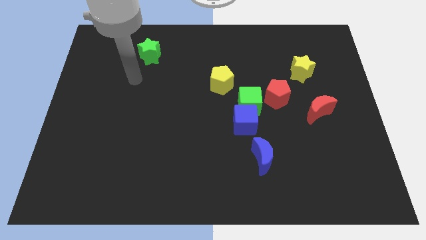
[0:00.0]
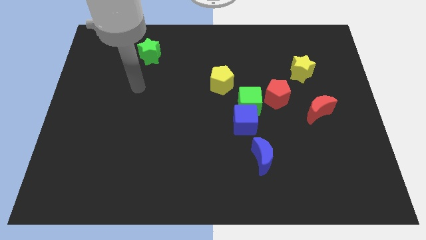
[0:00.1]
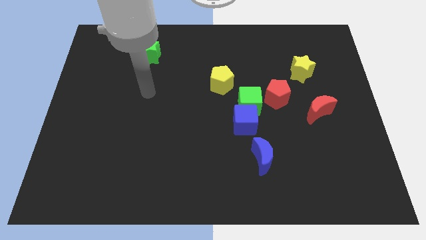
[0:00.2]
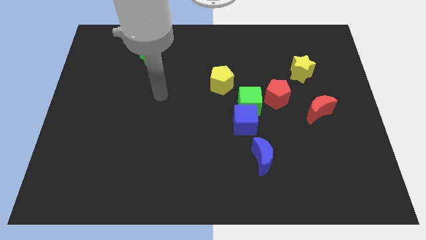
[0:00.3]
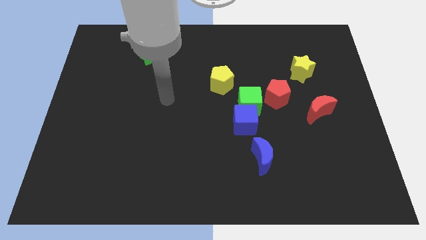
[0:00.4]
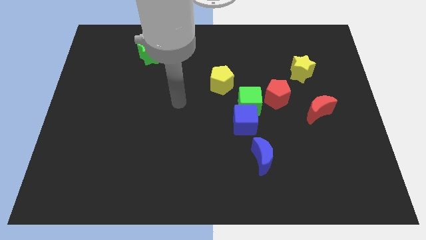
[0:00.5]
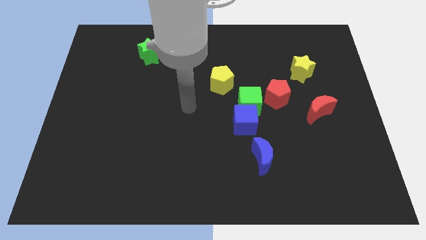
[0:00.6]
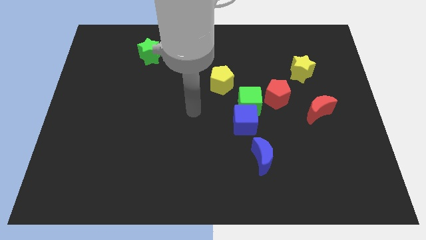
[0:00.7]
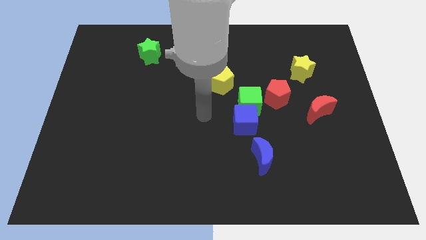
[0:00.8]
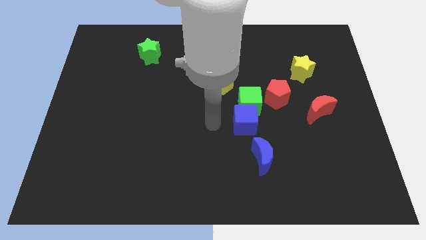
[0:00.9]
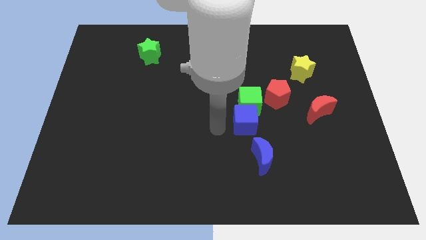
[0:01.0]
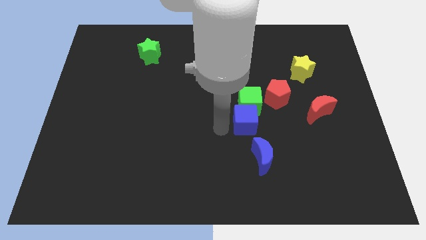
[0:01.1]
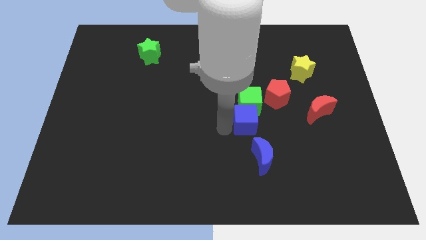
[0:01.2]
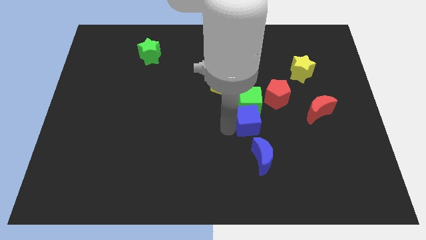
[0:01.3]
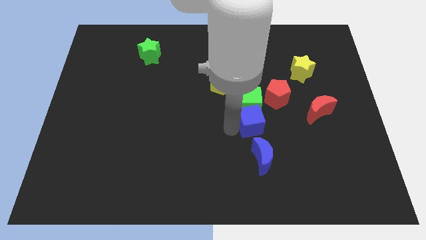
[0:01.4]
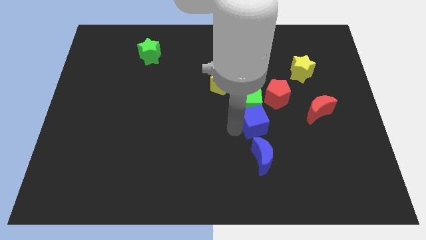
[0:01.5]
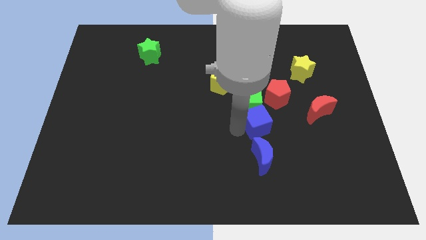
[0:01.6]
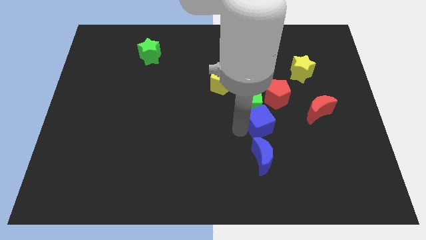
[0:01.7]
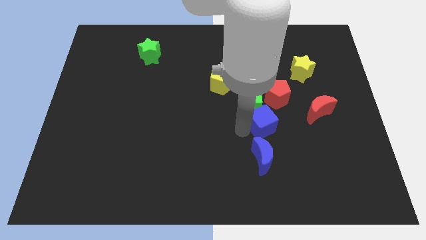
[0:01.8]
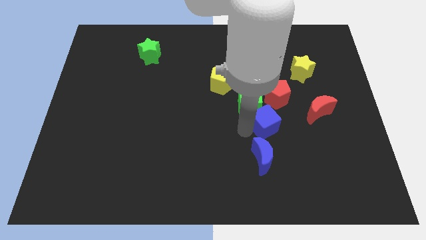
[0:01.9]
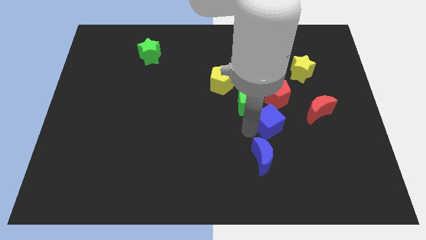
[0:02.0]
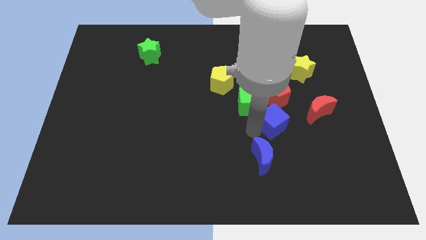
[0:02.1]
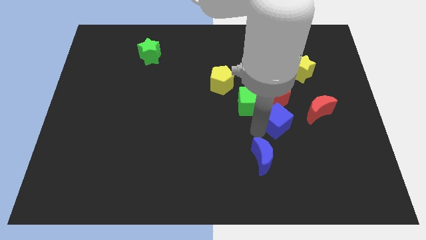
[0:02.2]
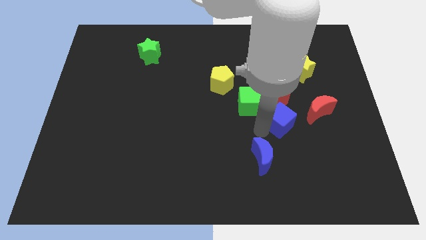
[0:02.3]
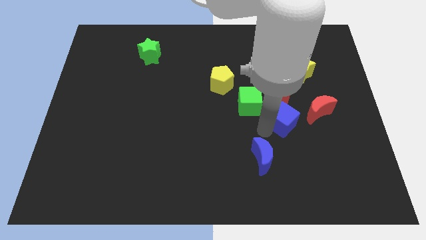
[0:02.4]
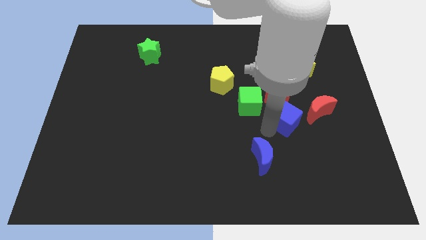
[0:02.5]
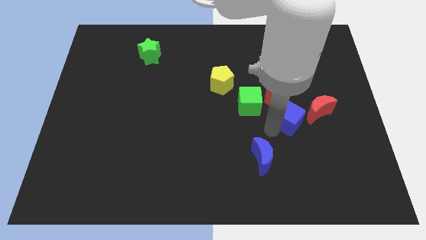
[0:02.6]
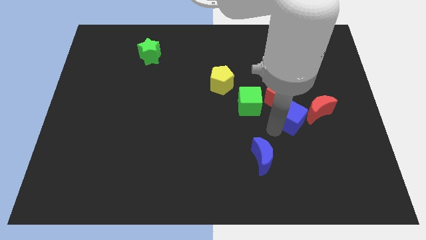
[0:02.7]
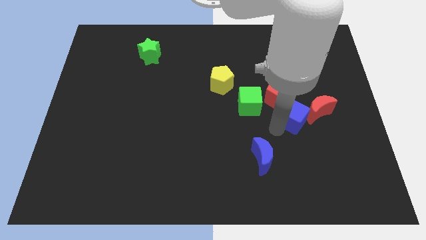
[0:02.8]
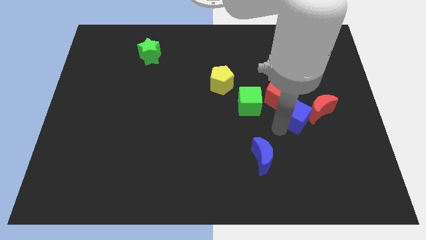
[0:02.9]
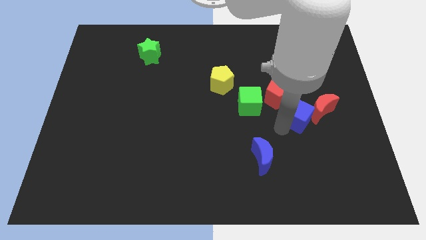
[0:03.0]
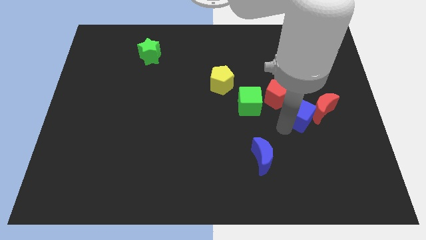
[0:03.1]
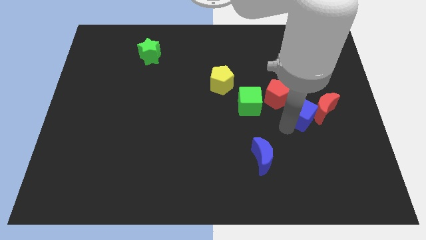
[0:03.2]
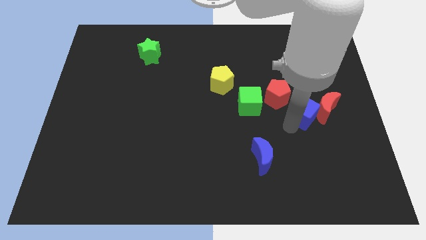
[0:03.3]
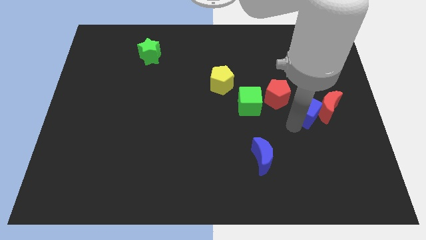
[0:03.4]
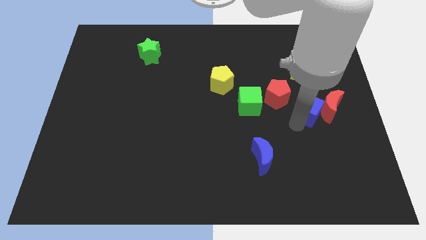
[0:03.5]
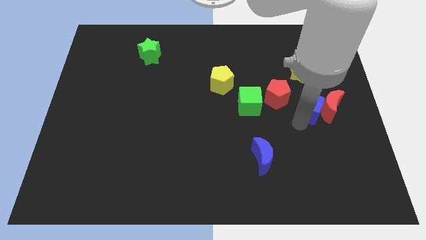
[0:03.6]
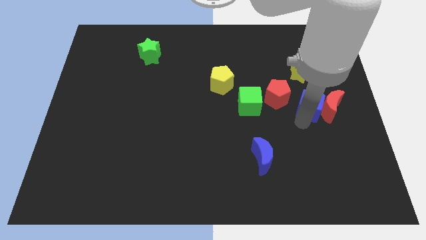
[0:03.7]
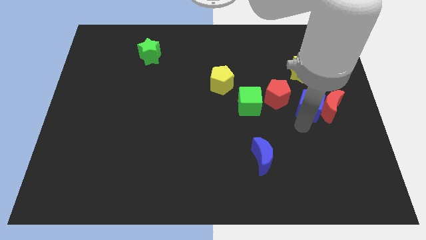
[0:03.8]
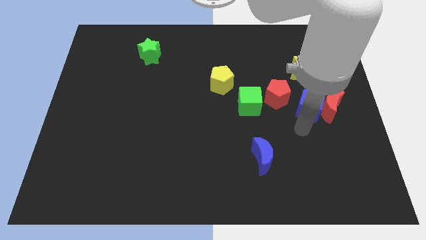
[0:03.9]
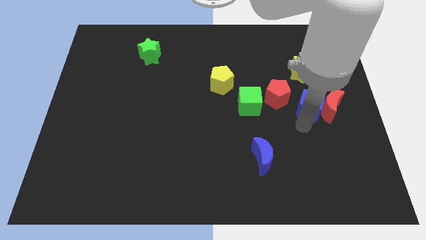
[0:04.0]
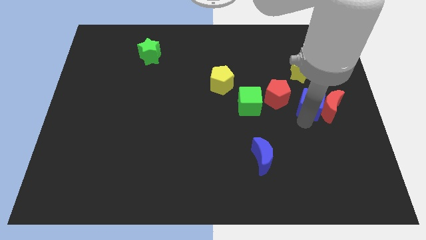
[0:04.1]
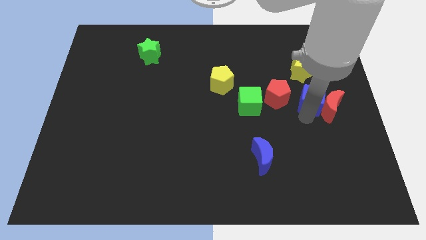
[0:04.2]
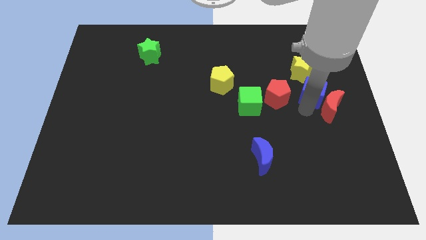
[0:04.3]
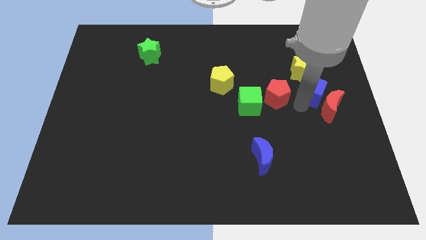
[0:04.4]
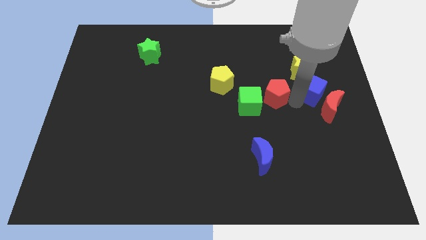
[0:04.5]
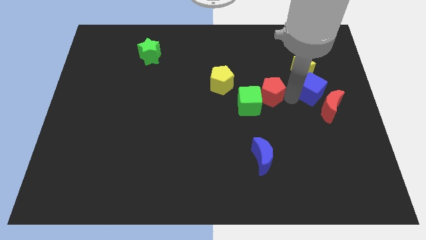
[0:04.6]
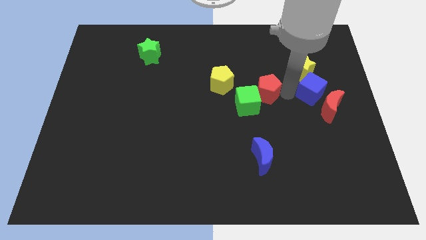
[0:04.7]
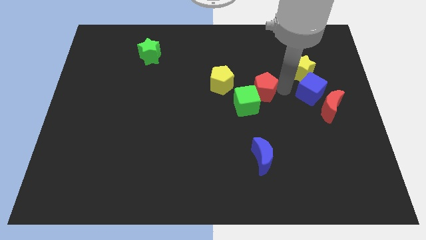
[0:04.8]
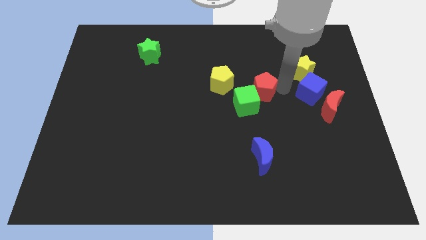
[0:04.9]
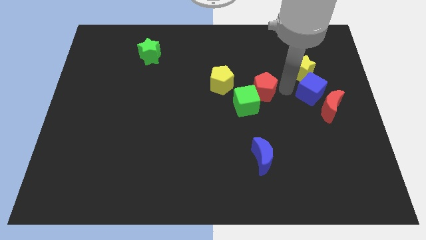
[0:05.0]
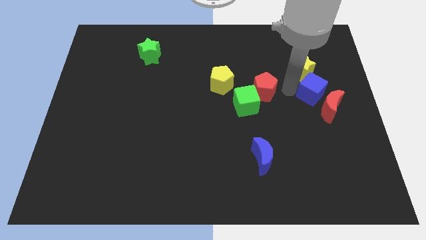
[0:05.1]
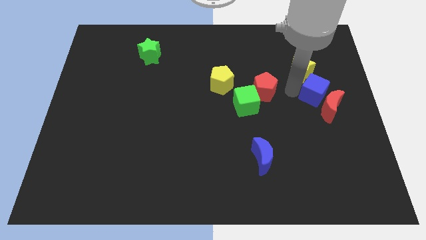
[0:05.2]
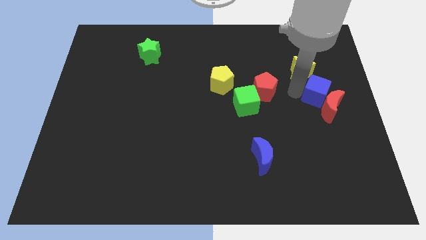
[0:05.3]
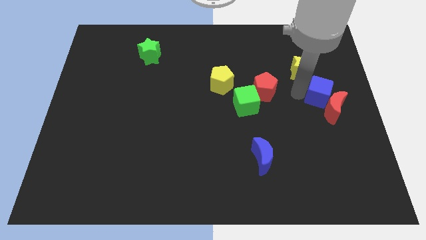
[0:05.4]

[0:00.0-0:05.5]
move the blue cube to the right side of the board

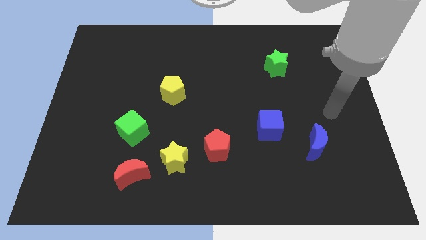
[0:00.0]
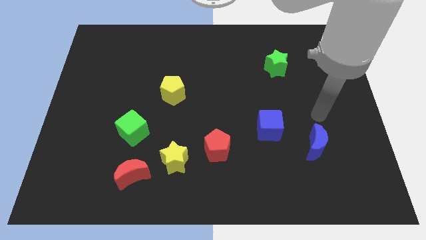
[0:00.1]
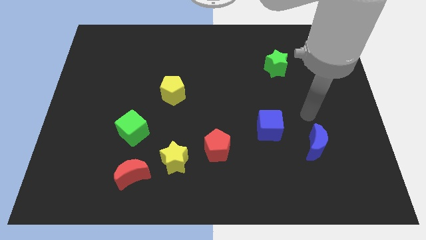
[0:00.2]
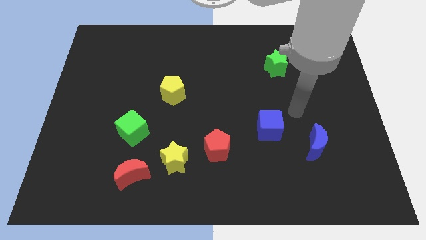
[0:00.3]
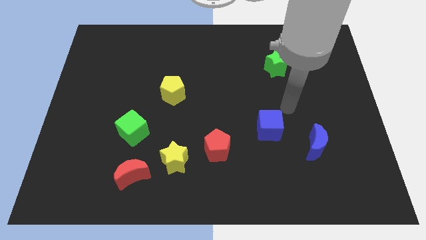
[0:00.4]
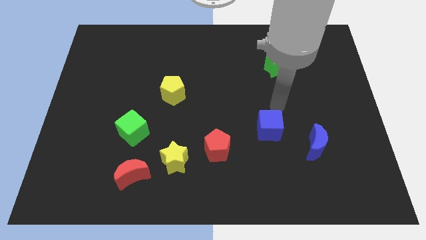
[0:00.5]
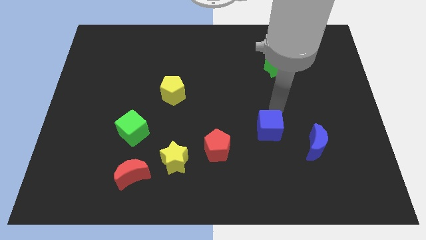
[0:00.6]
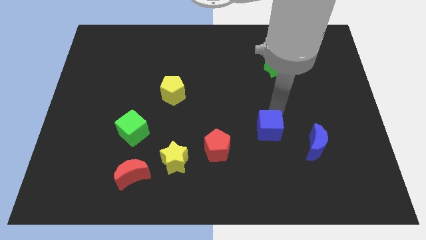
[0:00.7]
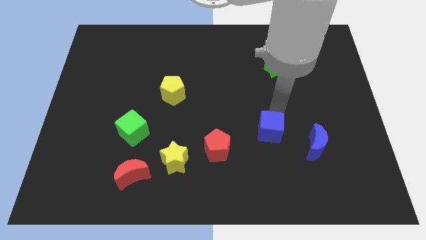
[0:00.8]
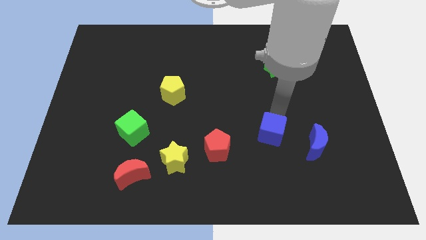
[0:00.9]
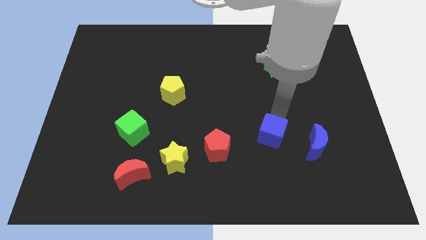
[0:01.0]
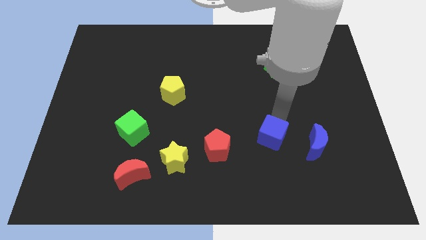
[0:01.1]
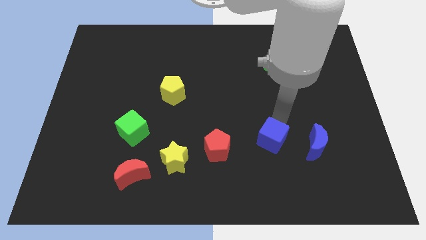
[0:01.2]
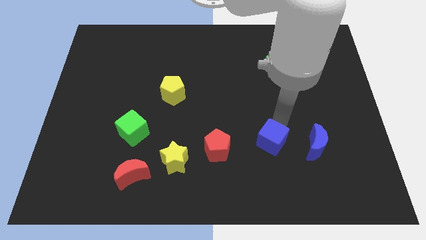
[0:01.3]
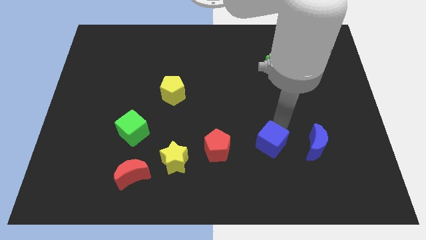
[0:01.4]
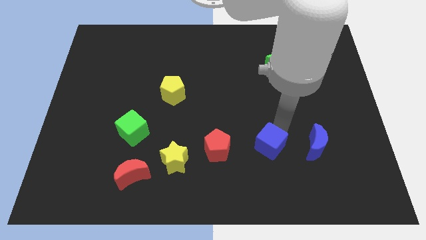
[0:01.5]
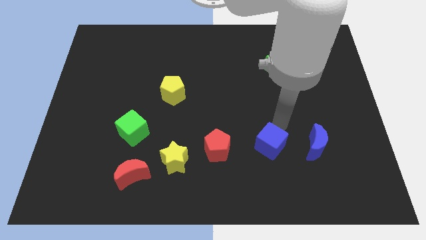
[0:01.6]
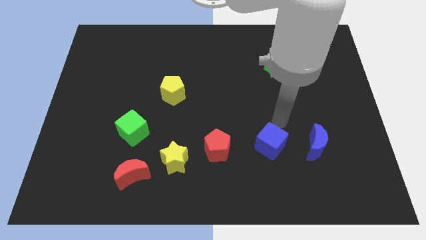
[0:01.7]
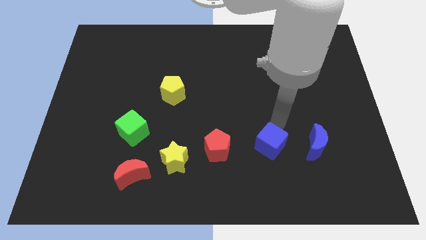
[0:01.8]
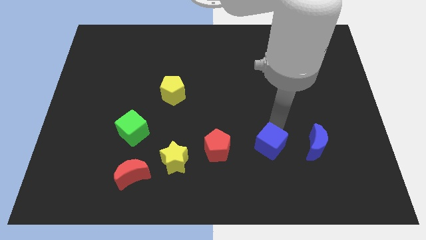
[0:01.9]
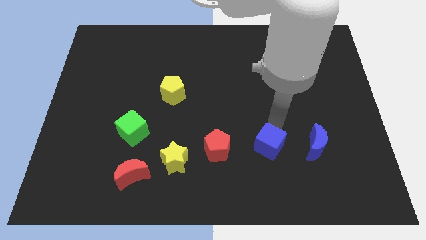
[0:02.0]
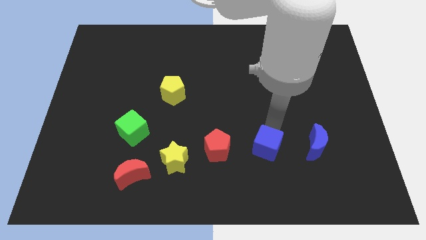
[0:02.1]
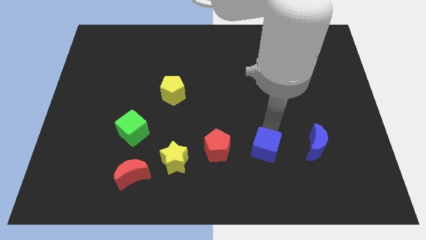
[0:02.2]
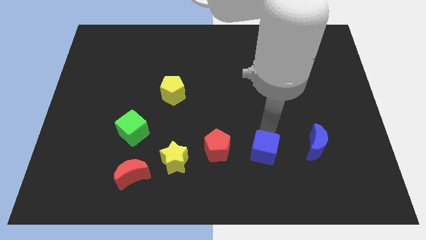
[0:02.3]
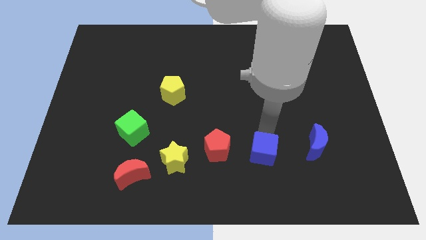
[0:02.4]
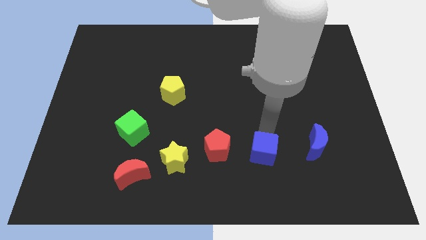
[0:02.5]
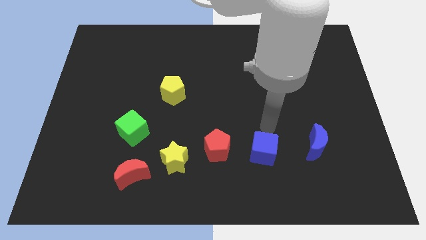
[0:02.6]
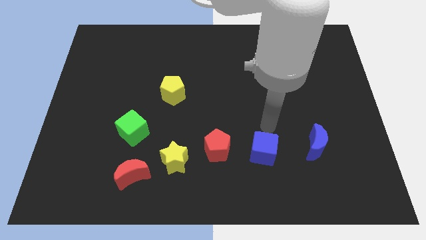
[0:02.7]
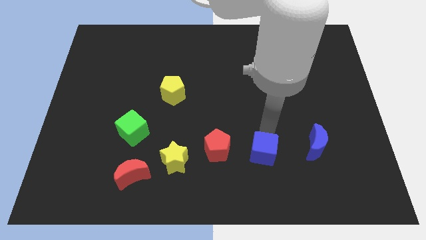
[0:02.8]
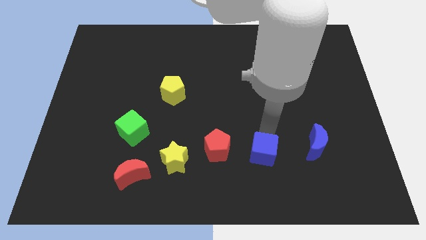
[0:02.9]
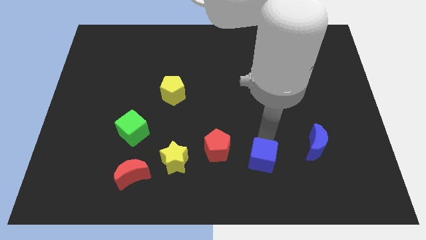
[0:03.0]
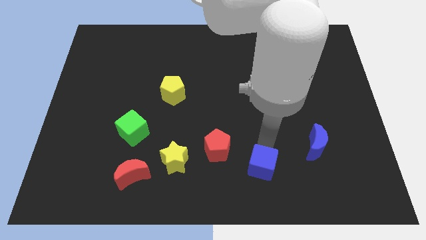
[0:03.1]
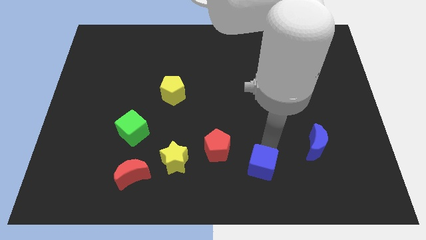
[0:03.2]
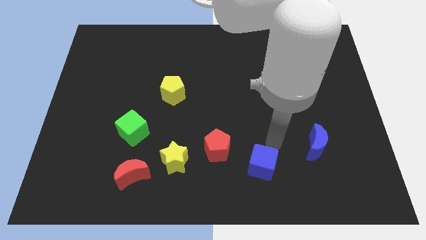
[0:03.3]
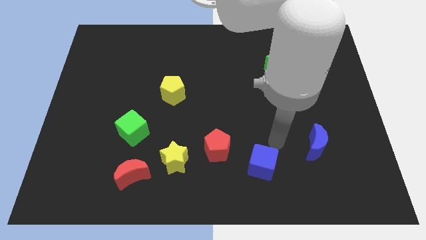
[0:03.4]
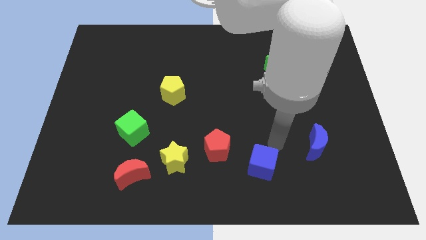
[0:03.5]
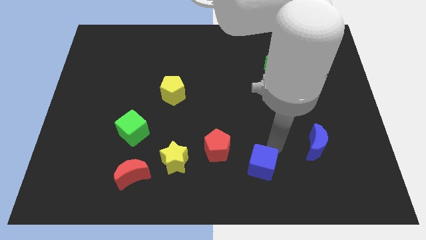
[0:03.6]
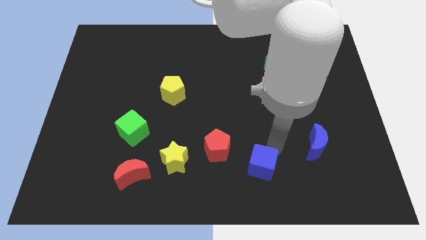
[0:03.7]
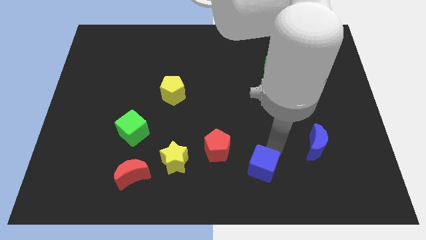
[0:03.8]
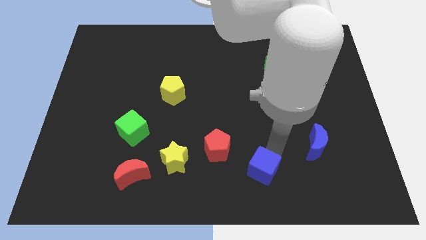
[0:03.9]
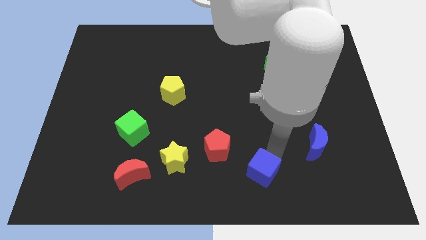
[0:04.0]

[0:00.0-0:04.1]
put the blue cube to the bottom side
